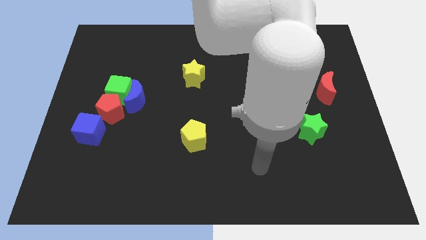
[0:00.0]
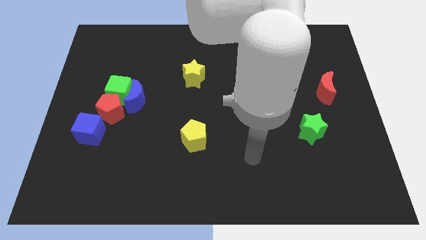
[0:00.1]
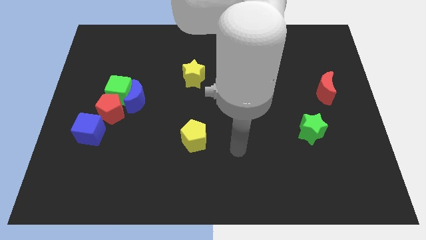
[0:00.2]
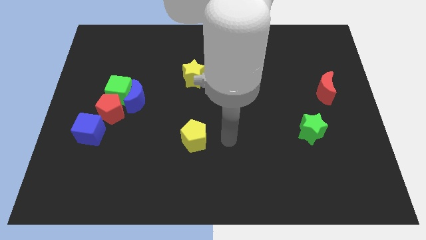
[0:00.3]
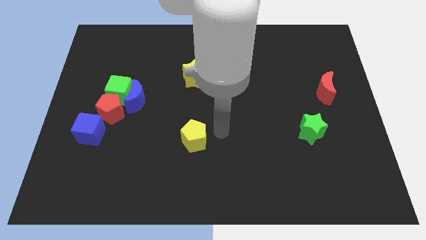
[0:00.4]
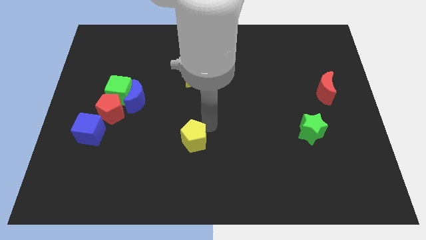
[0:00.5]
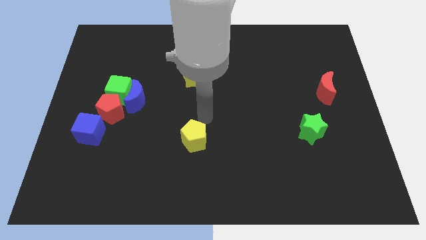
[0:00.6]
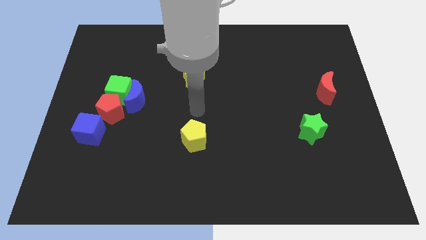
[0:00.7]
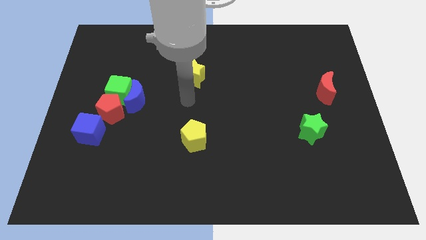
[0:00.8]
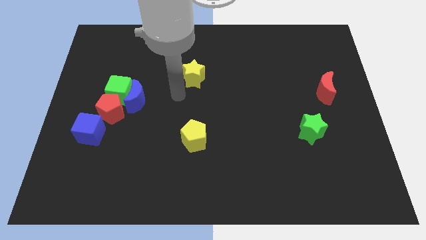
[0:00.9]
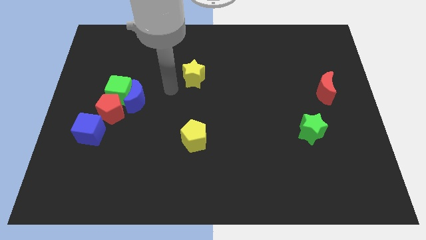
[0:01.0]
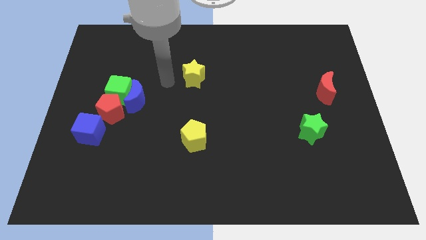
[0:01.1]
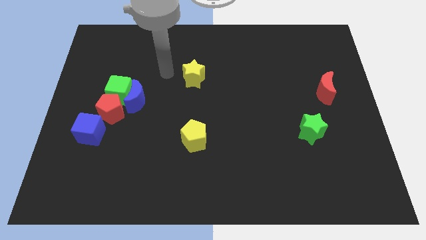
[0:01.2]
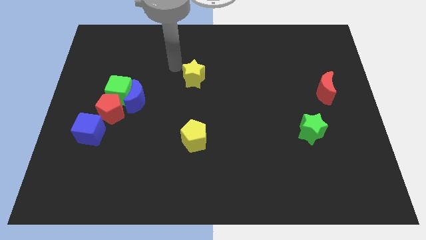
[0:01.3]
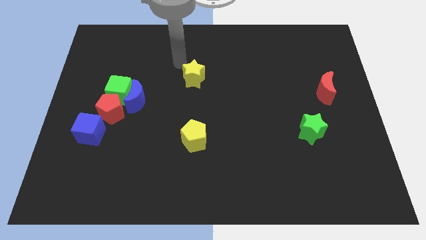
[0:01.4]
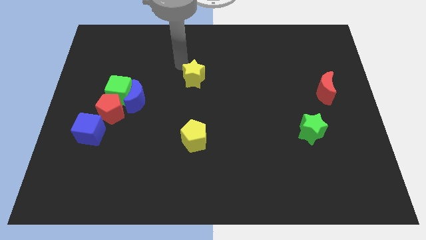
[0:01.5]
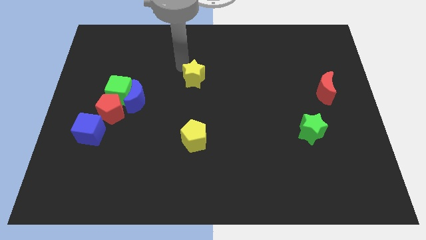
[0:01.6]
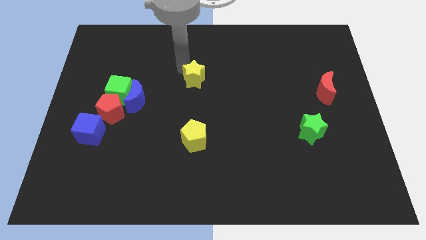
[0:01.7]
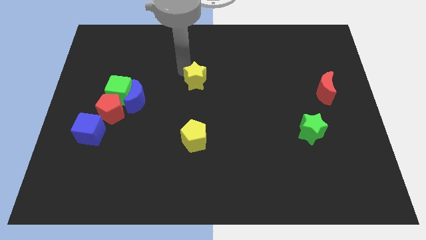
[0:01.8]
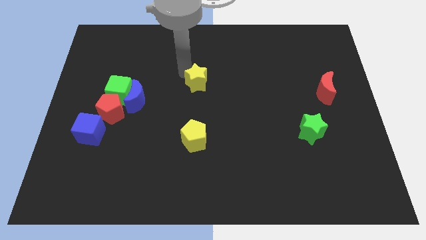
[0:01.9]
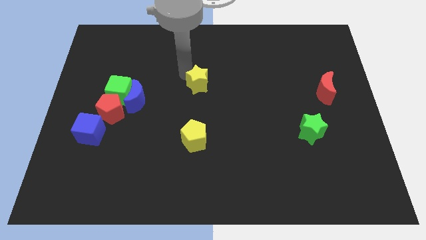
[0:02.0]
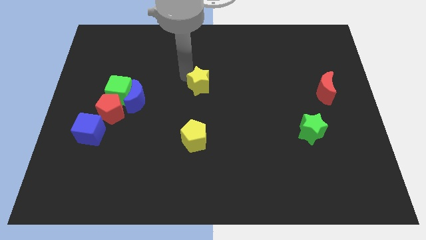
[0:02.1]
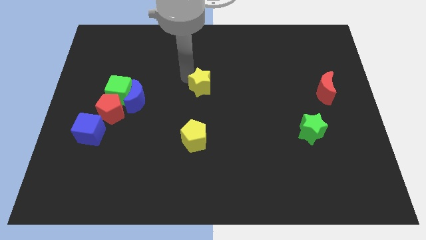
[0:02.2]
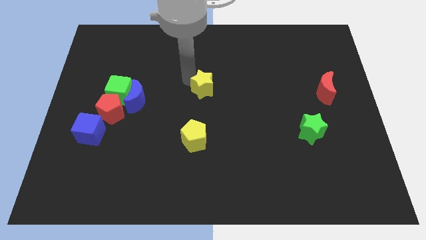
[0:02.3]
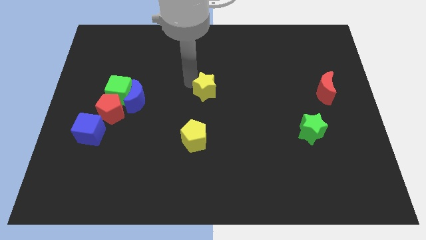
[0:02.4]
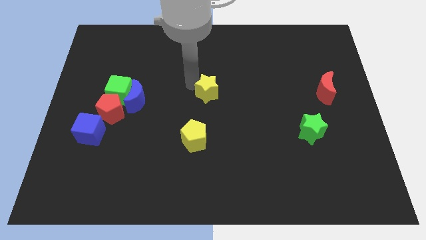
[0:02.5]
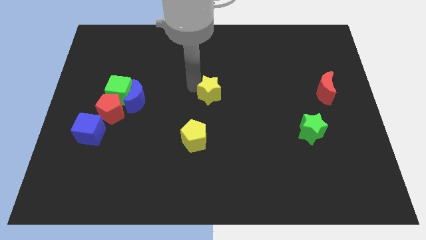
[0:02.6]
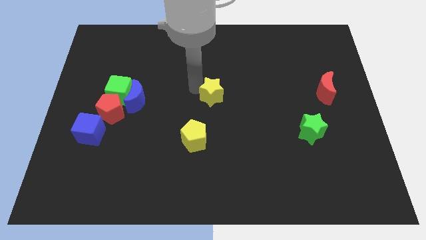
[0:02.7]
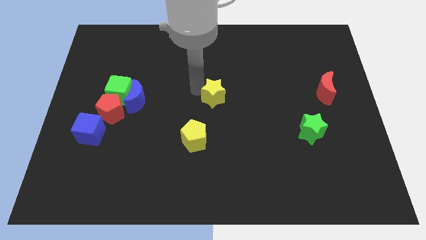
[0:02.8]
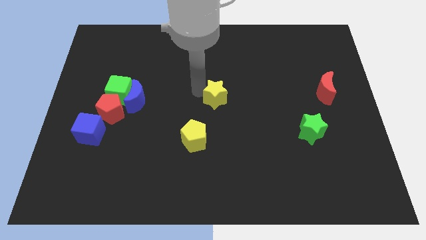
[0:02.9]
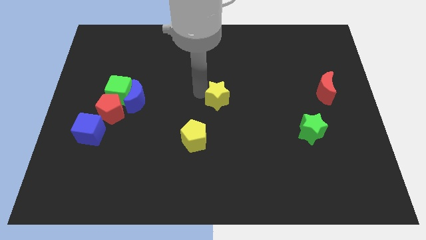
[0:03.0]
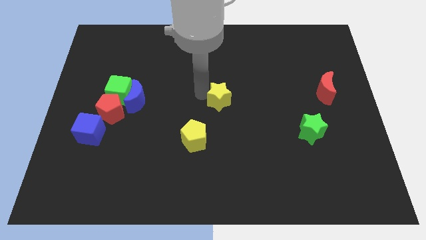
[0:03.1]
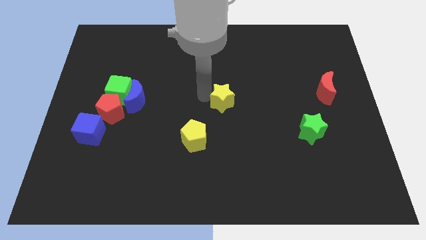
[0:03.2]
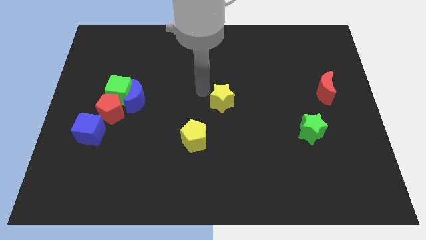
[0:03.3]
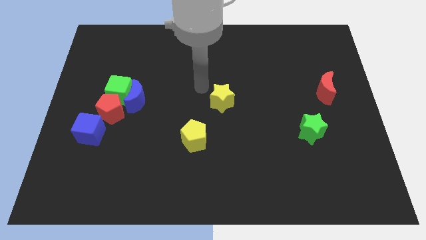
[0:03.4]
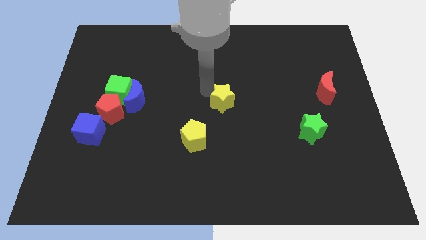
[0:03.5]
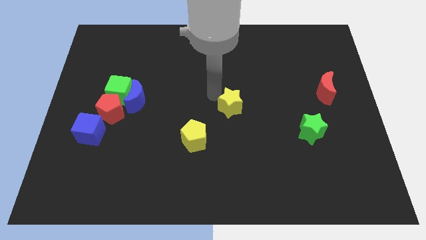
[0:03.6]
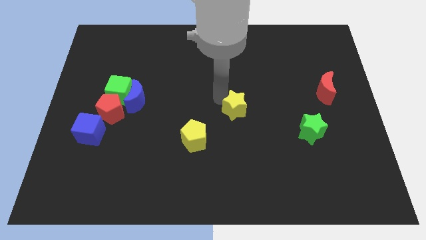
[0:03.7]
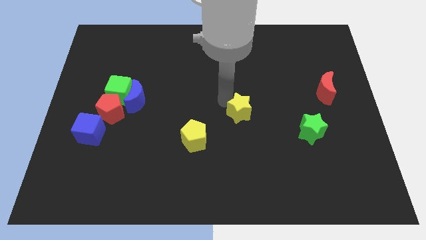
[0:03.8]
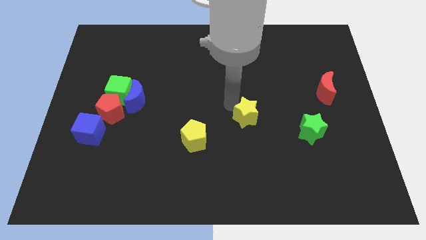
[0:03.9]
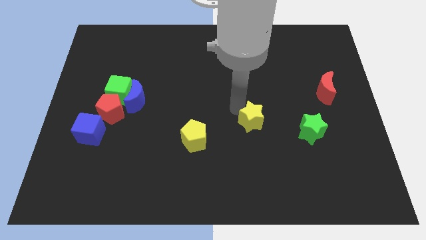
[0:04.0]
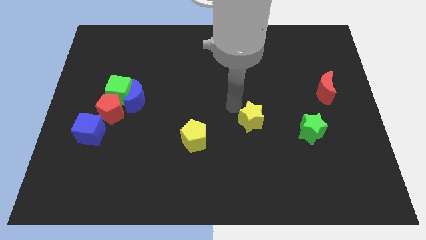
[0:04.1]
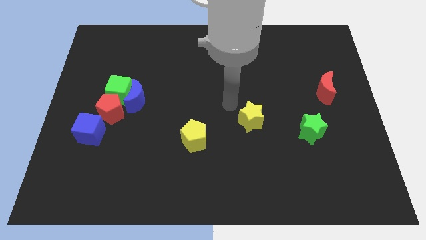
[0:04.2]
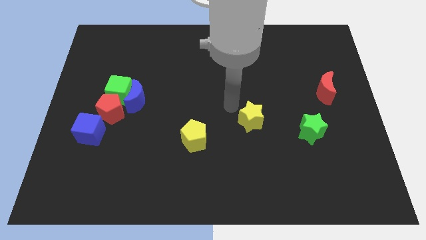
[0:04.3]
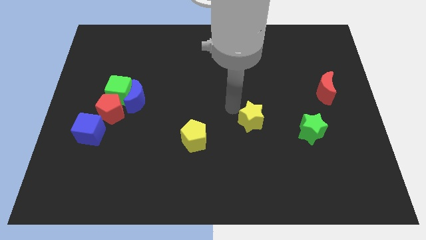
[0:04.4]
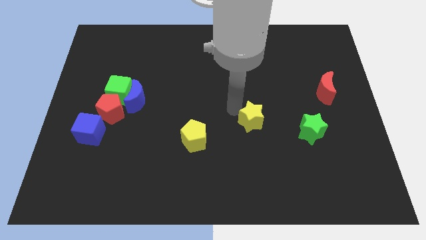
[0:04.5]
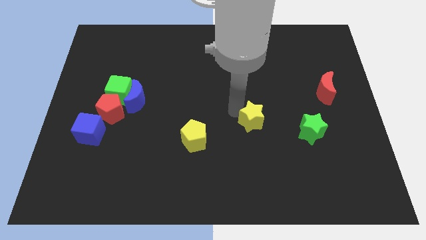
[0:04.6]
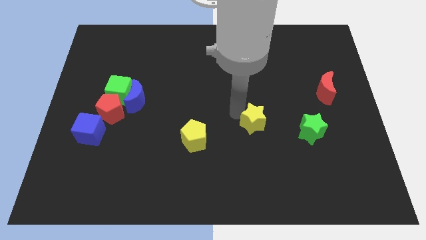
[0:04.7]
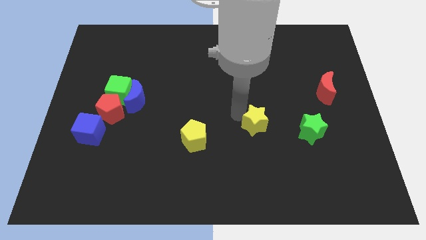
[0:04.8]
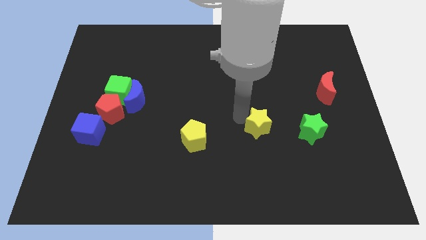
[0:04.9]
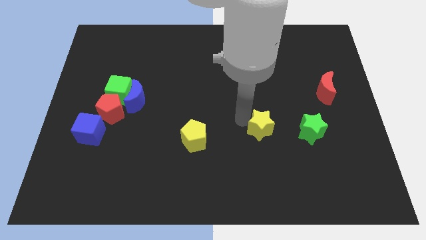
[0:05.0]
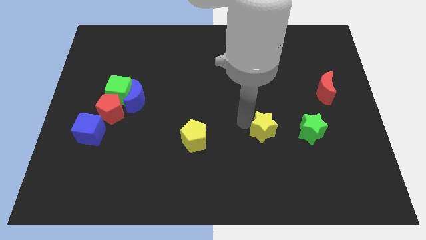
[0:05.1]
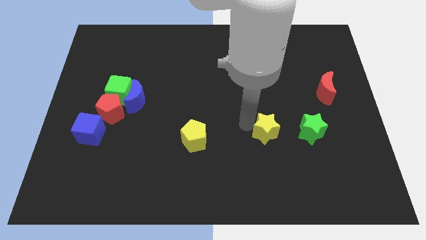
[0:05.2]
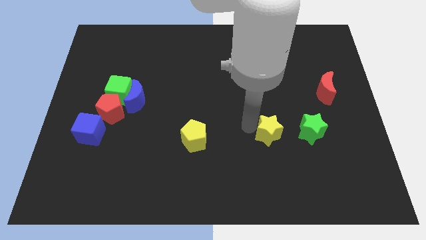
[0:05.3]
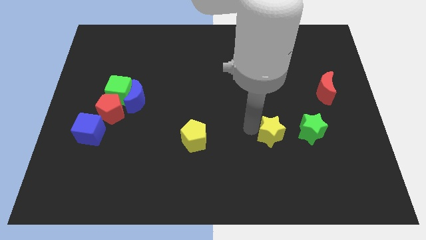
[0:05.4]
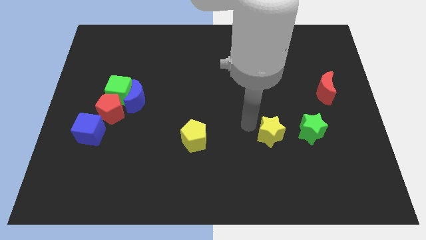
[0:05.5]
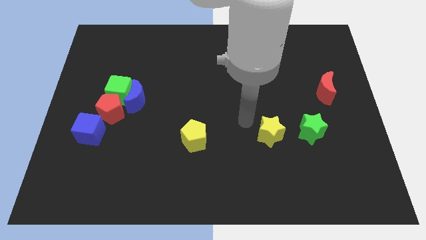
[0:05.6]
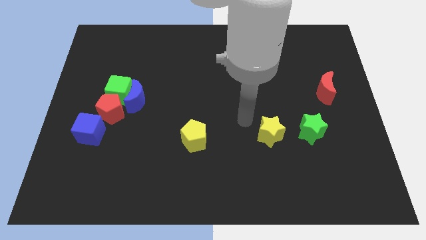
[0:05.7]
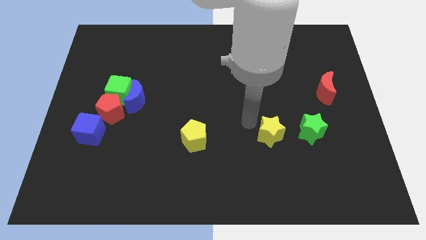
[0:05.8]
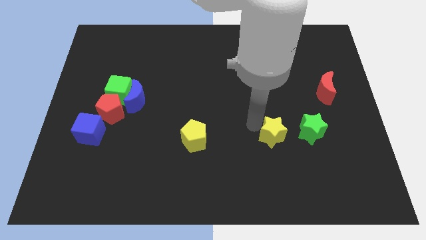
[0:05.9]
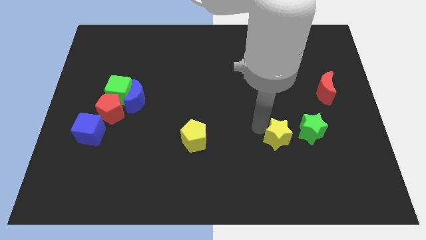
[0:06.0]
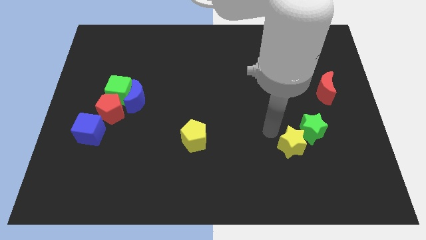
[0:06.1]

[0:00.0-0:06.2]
slide the yellow star to the bottom of the green star

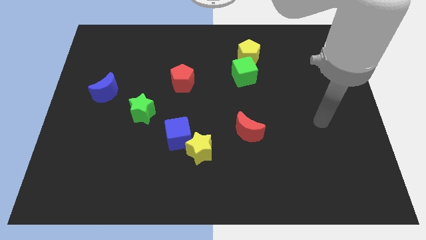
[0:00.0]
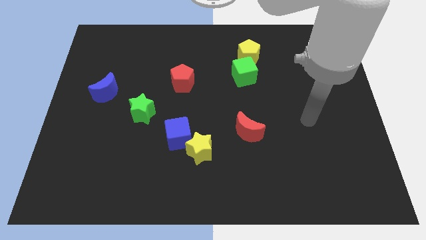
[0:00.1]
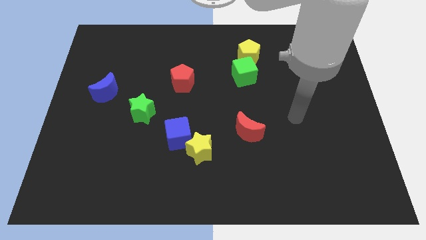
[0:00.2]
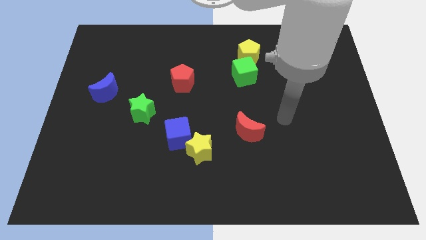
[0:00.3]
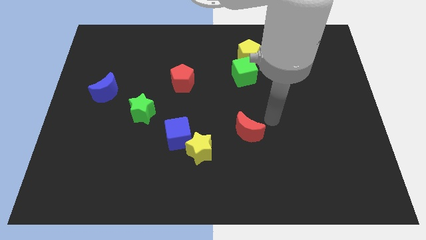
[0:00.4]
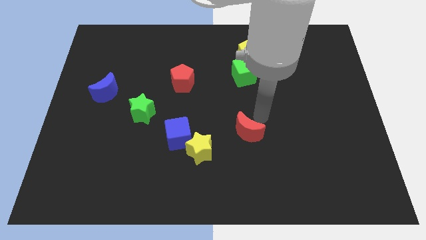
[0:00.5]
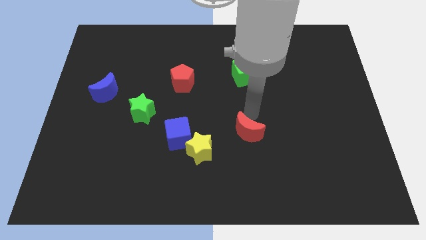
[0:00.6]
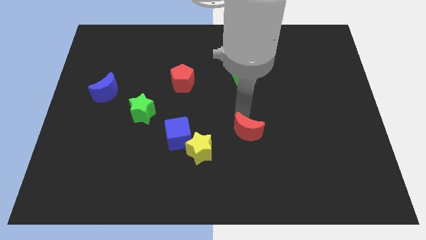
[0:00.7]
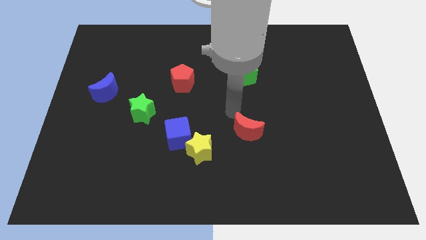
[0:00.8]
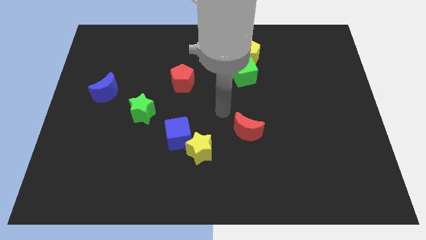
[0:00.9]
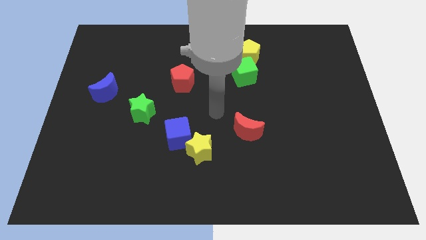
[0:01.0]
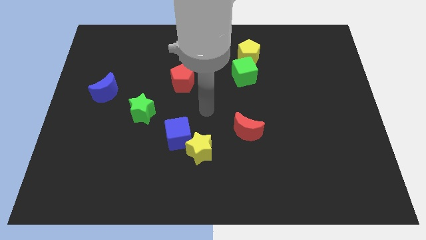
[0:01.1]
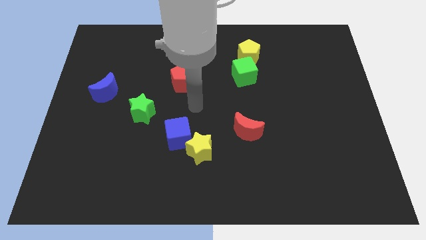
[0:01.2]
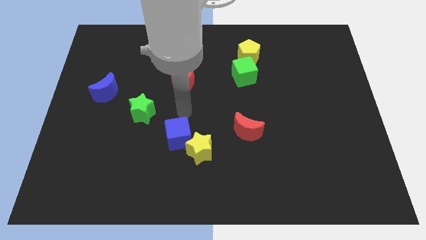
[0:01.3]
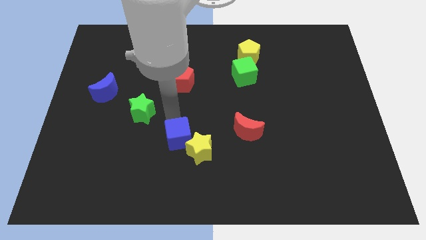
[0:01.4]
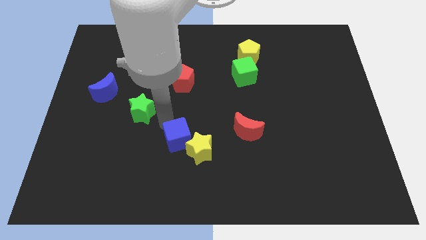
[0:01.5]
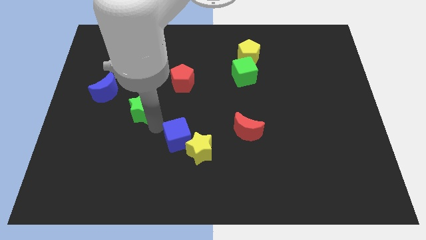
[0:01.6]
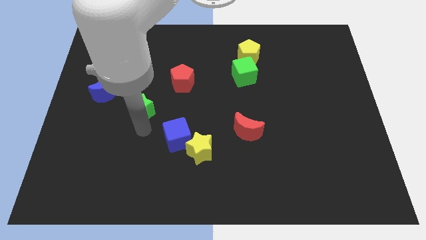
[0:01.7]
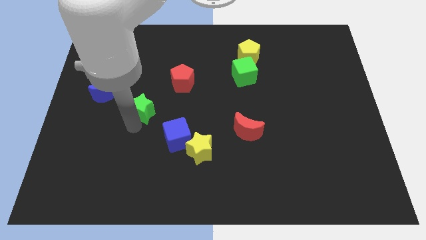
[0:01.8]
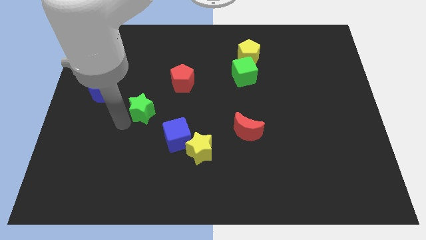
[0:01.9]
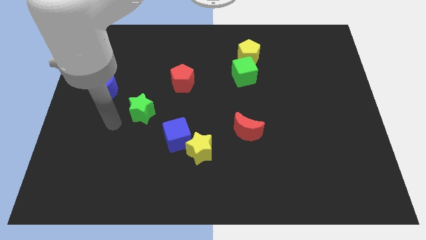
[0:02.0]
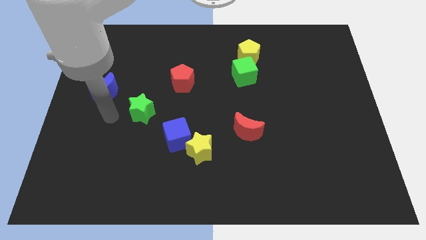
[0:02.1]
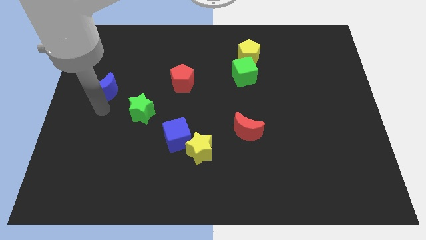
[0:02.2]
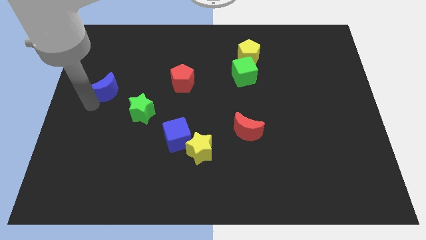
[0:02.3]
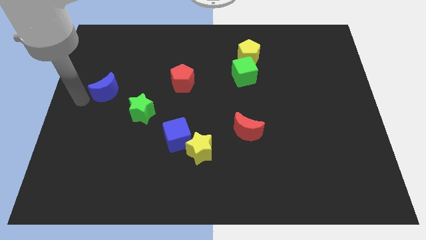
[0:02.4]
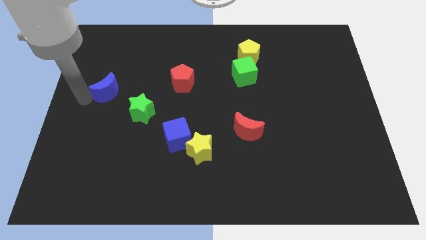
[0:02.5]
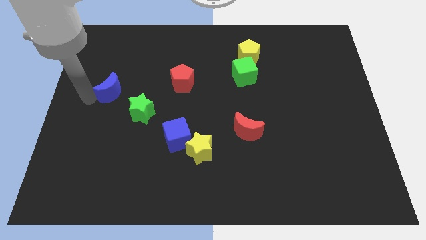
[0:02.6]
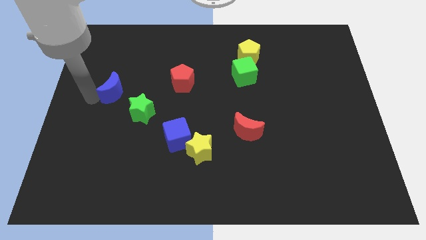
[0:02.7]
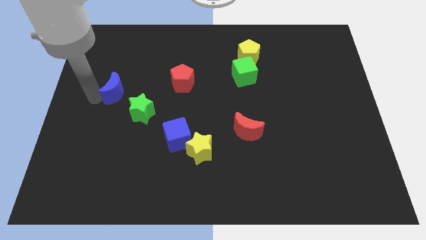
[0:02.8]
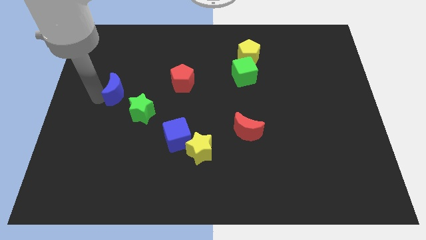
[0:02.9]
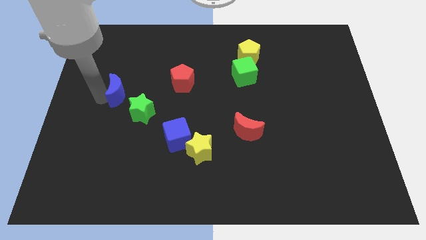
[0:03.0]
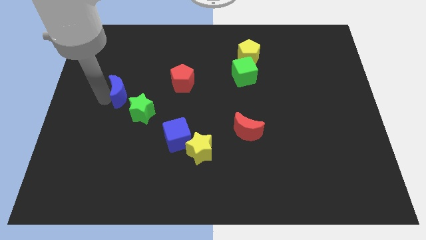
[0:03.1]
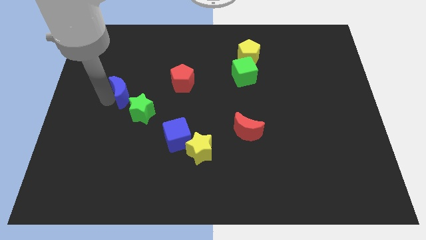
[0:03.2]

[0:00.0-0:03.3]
put the blue moon to the left of the red pentagon
